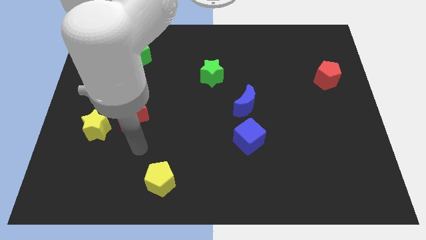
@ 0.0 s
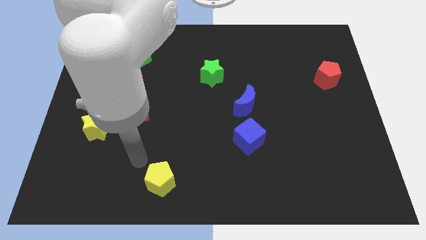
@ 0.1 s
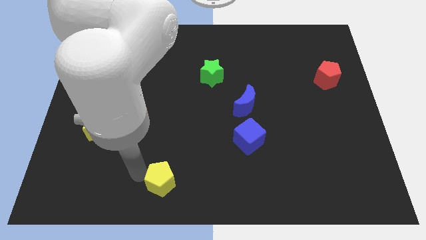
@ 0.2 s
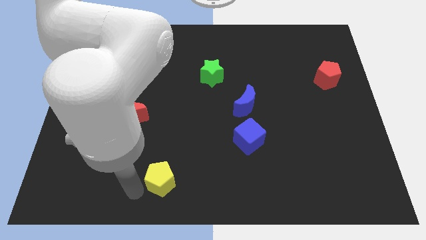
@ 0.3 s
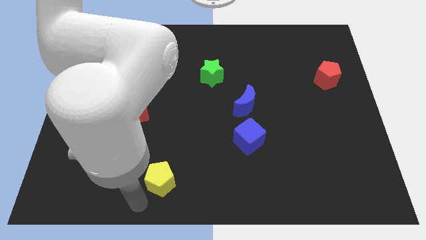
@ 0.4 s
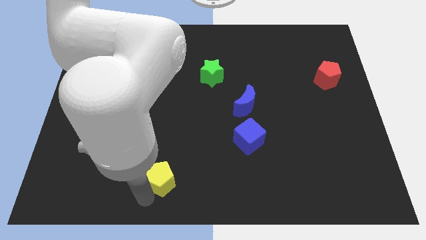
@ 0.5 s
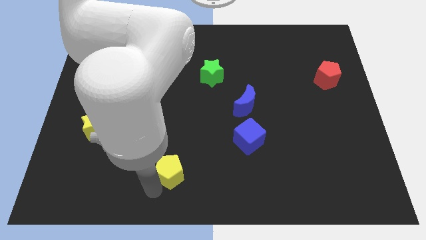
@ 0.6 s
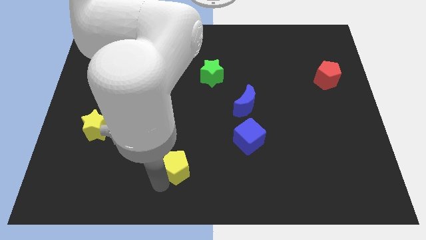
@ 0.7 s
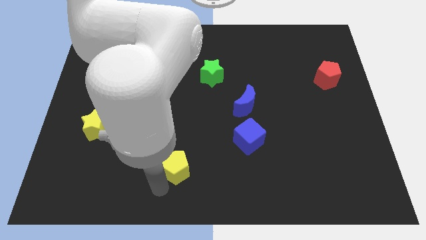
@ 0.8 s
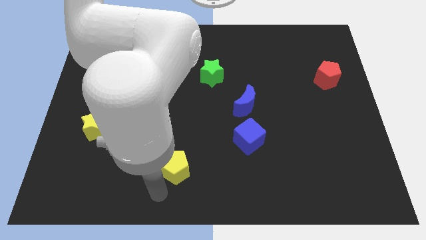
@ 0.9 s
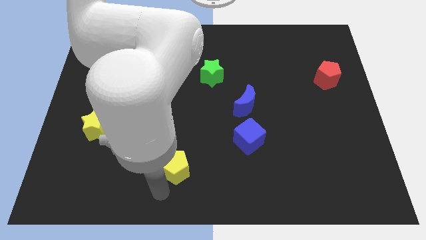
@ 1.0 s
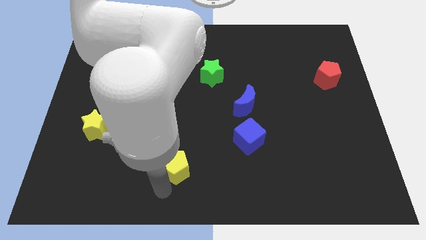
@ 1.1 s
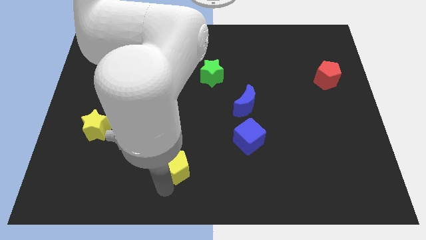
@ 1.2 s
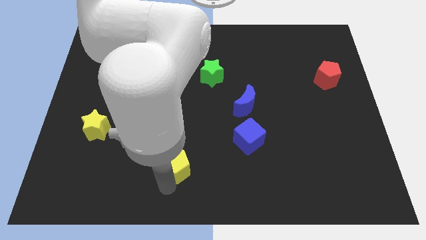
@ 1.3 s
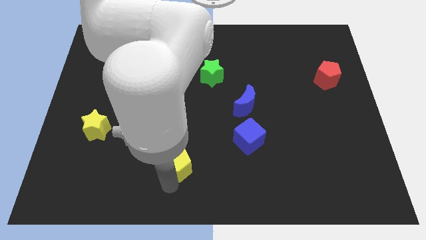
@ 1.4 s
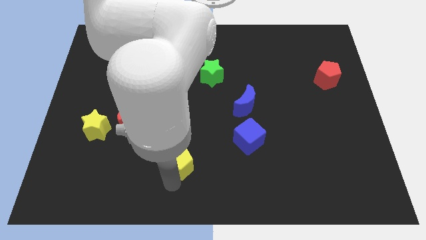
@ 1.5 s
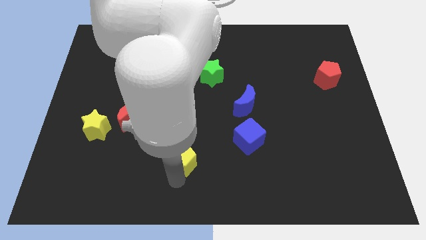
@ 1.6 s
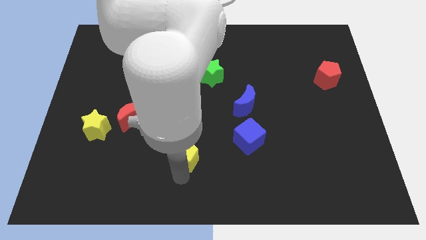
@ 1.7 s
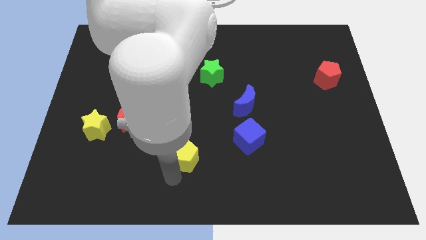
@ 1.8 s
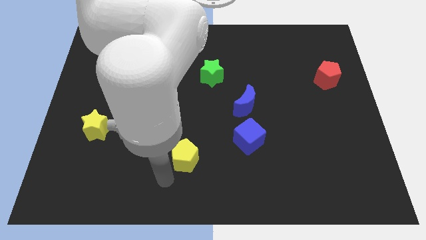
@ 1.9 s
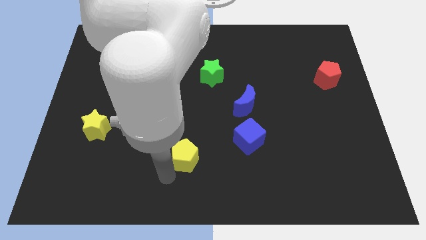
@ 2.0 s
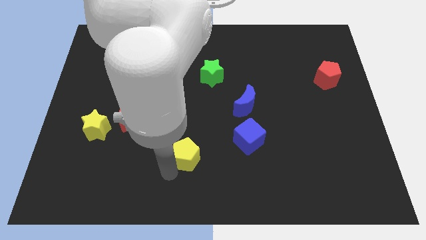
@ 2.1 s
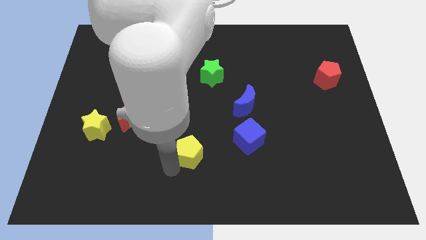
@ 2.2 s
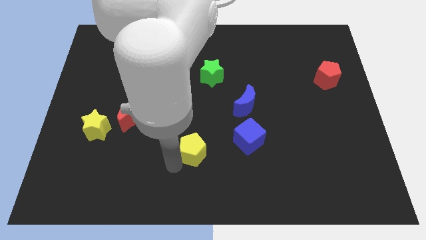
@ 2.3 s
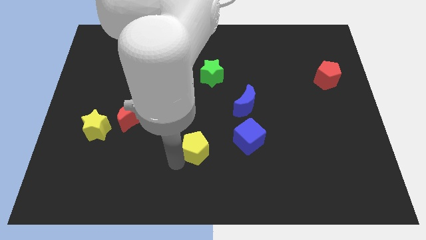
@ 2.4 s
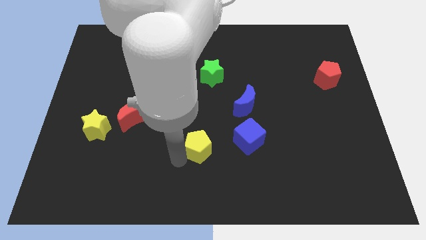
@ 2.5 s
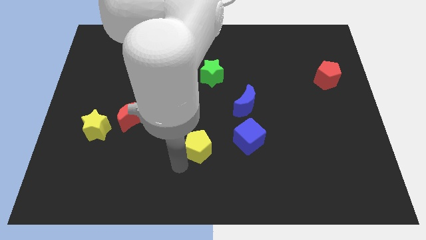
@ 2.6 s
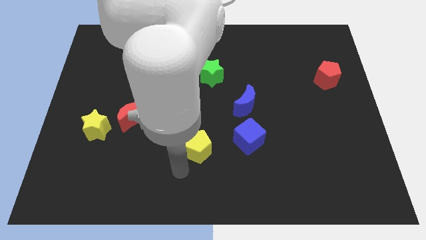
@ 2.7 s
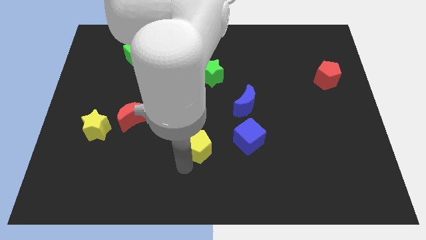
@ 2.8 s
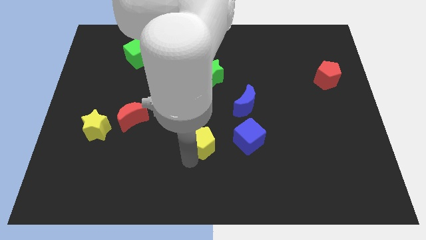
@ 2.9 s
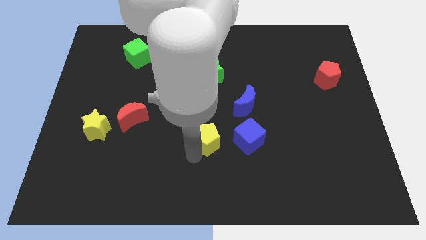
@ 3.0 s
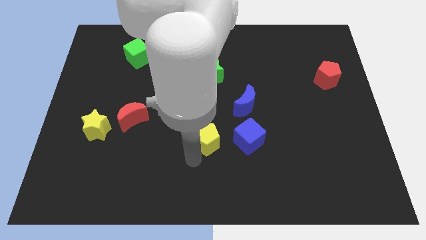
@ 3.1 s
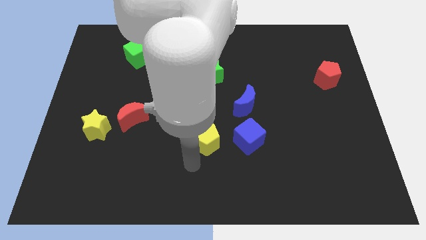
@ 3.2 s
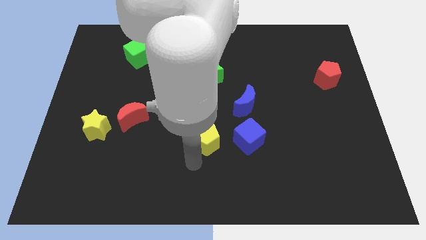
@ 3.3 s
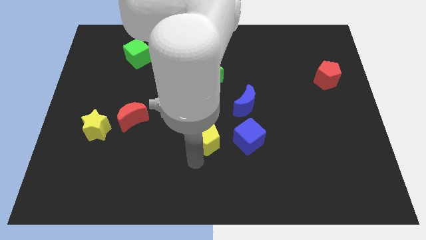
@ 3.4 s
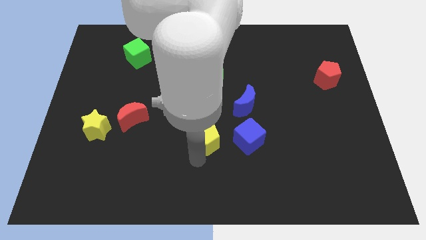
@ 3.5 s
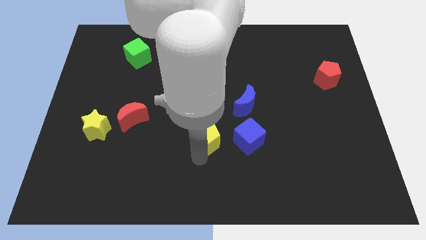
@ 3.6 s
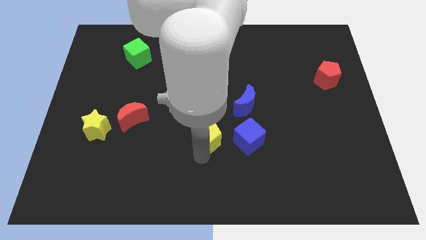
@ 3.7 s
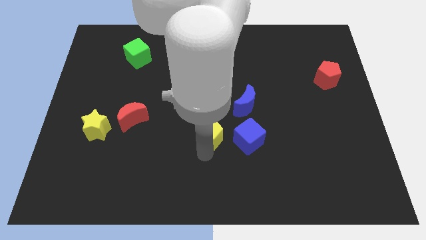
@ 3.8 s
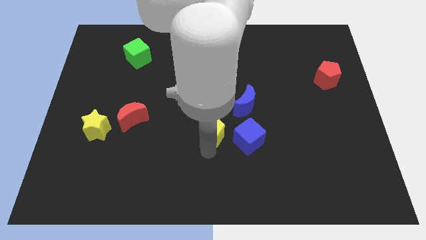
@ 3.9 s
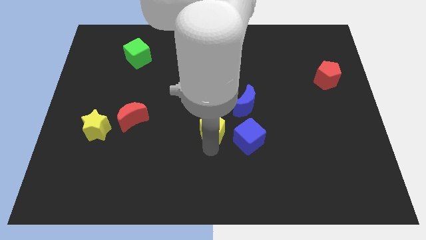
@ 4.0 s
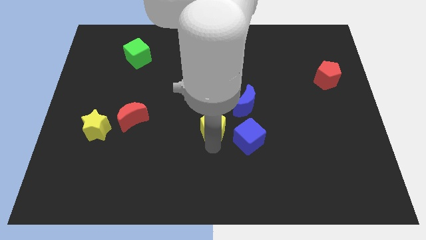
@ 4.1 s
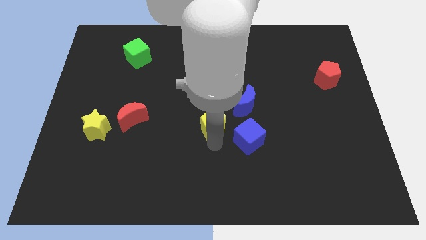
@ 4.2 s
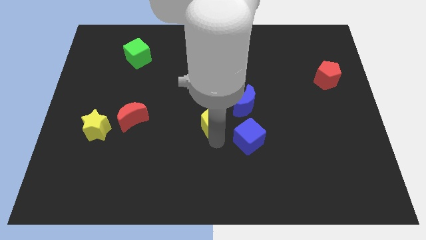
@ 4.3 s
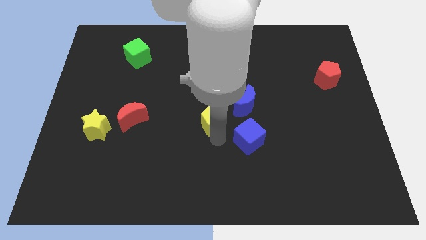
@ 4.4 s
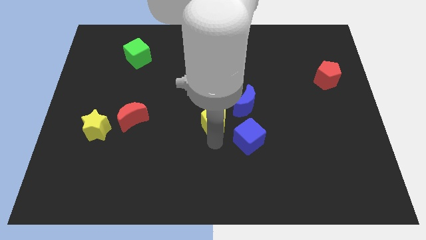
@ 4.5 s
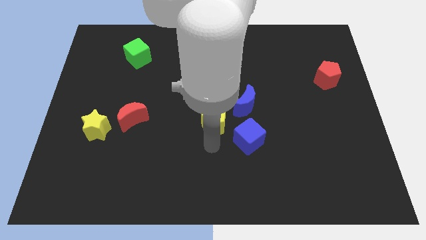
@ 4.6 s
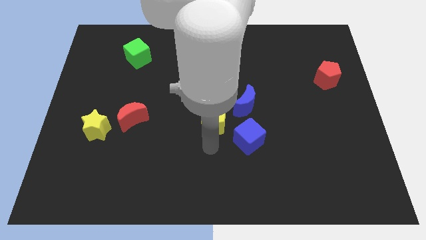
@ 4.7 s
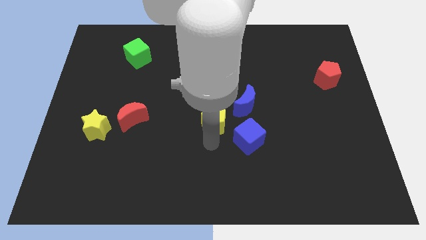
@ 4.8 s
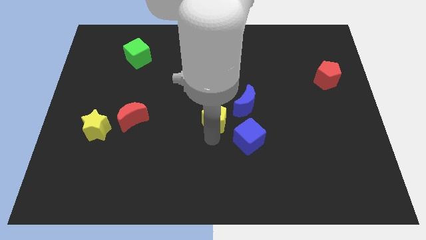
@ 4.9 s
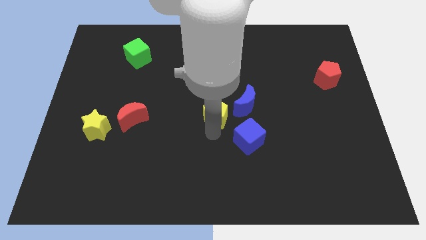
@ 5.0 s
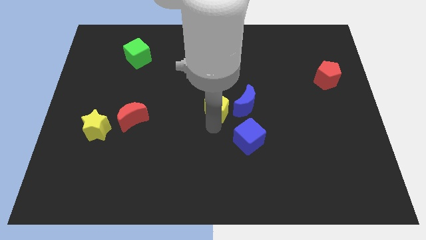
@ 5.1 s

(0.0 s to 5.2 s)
move the yellow pentagon up and right

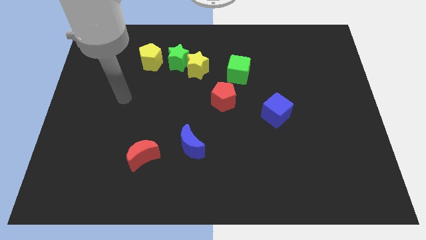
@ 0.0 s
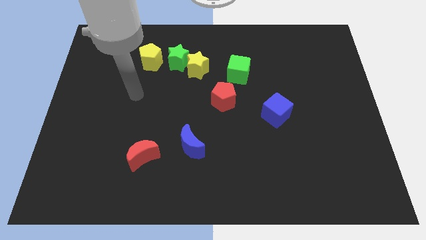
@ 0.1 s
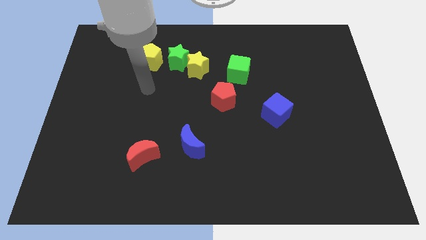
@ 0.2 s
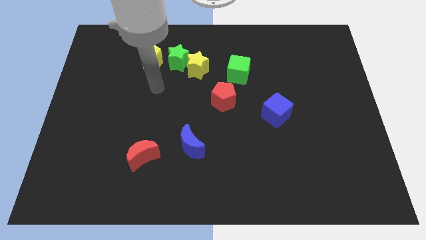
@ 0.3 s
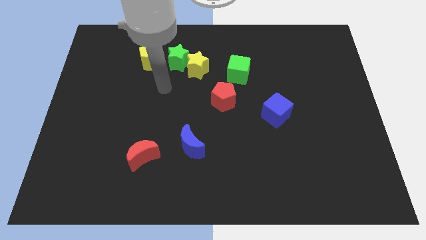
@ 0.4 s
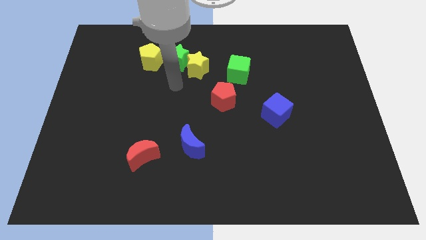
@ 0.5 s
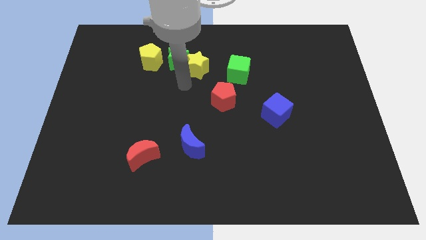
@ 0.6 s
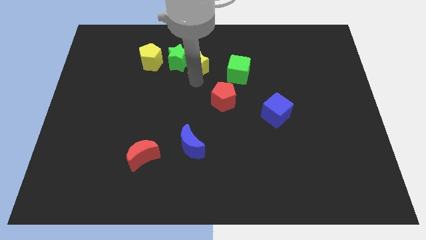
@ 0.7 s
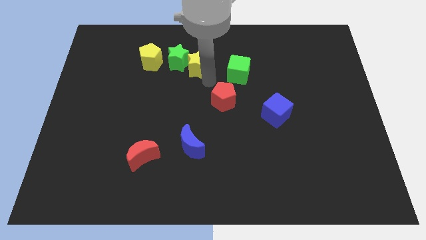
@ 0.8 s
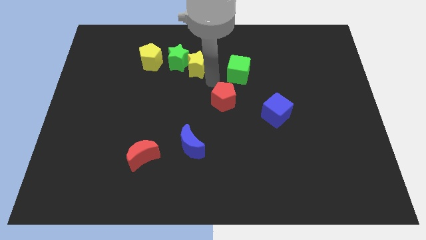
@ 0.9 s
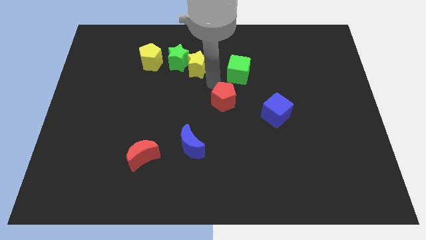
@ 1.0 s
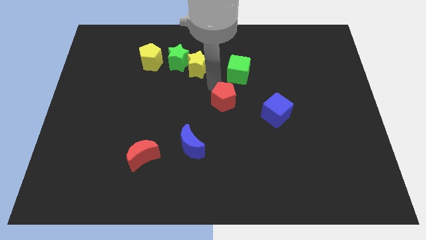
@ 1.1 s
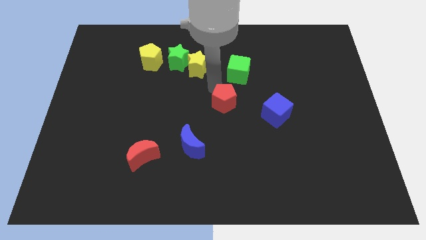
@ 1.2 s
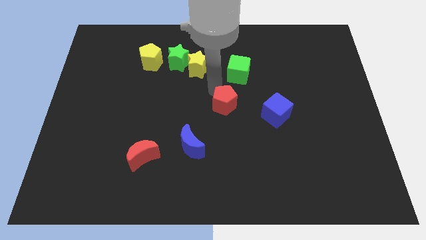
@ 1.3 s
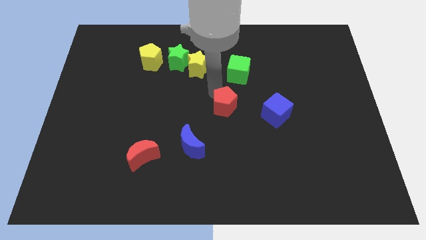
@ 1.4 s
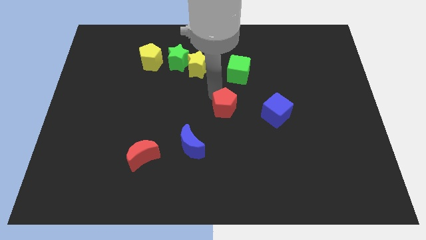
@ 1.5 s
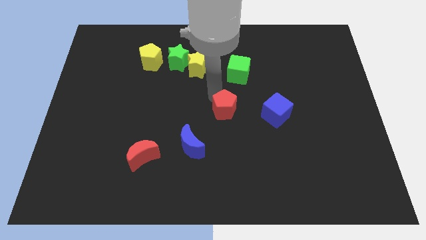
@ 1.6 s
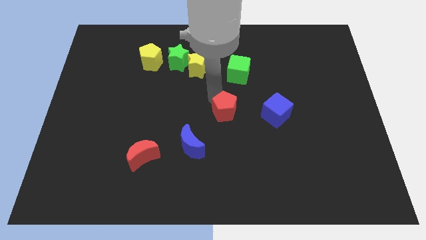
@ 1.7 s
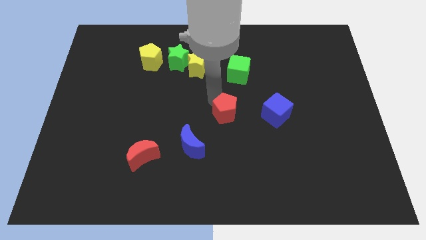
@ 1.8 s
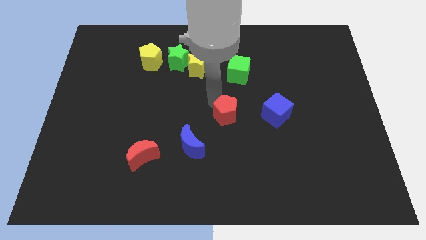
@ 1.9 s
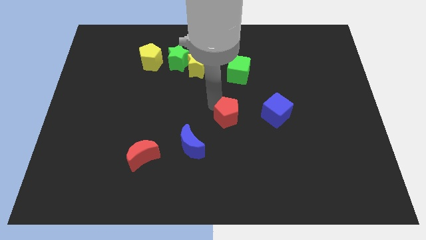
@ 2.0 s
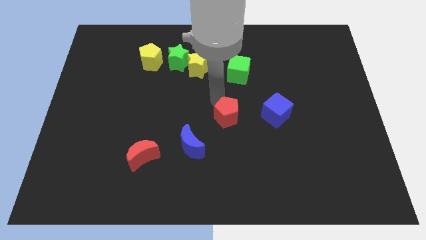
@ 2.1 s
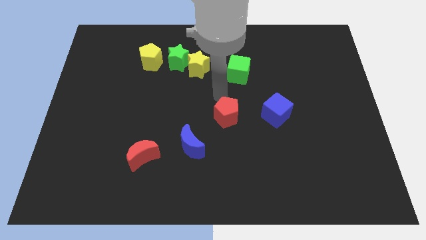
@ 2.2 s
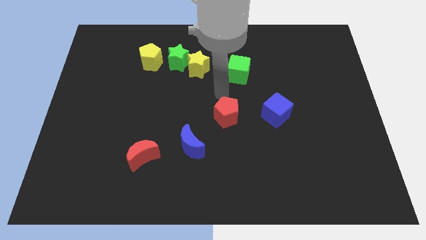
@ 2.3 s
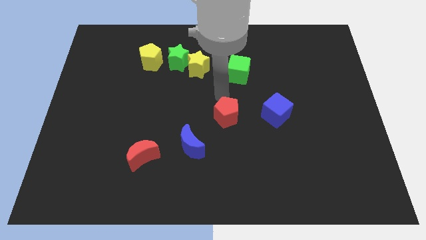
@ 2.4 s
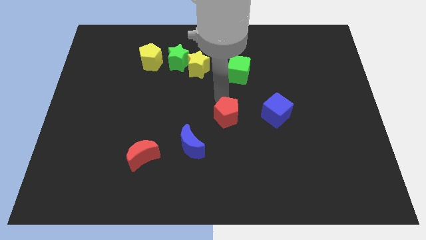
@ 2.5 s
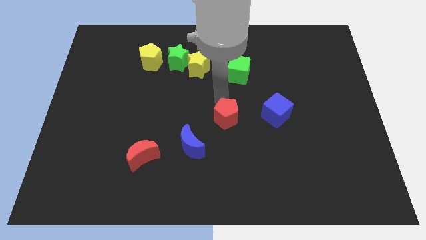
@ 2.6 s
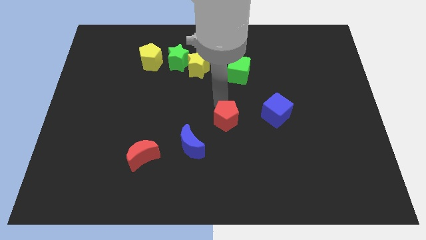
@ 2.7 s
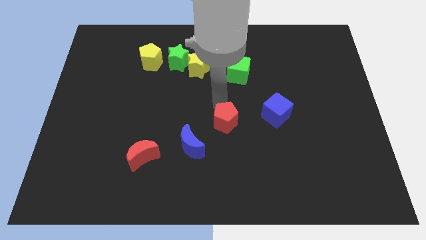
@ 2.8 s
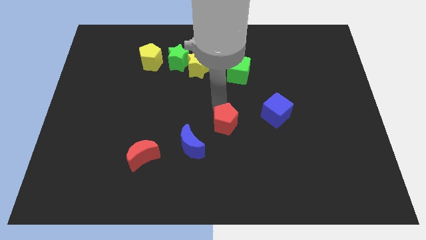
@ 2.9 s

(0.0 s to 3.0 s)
slightly push the red pentagon downwards
